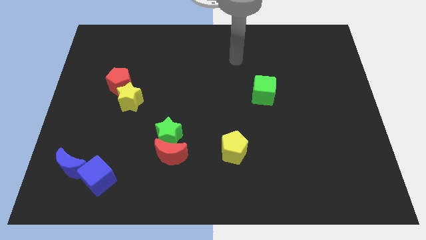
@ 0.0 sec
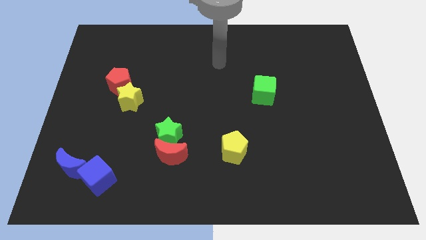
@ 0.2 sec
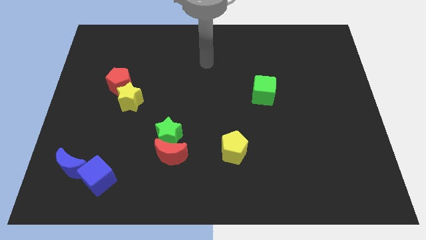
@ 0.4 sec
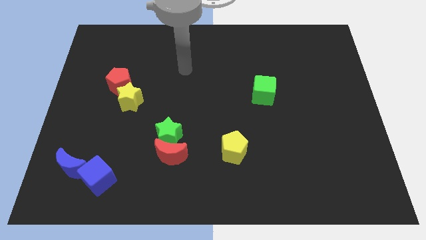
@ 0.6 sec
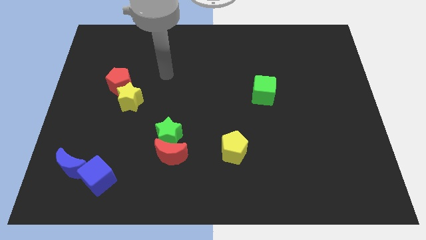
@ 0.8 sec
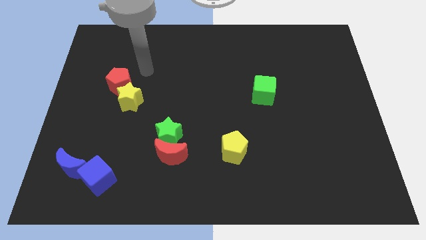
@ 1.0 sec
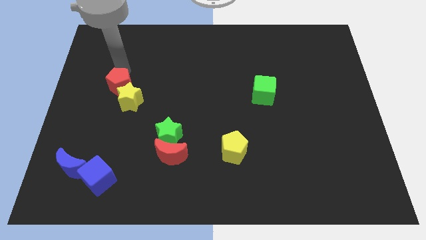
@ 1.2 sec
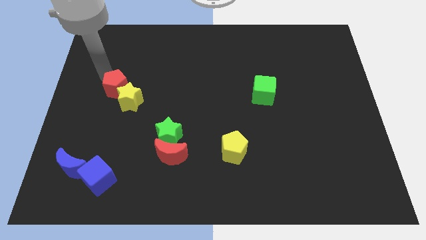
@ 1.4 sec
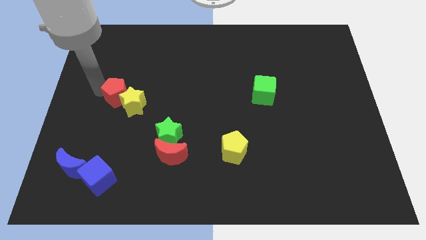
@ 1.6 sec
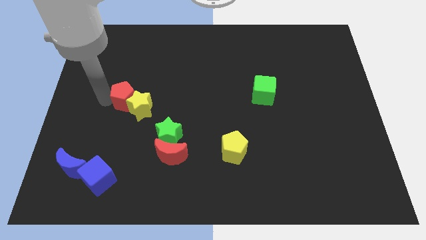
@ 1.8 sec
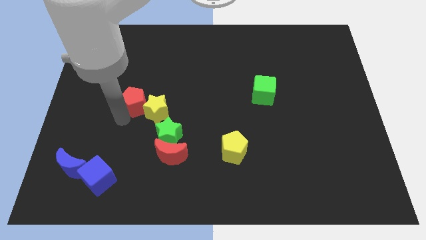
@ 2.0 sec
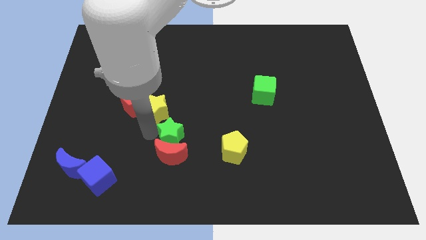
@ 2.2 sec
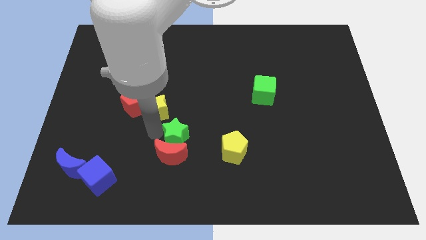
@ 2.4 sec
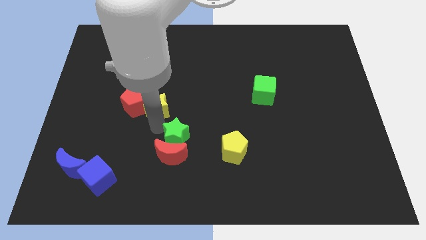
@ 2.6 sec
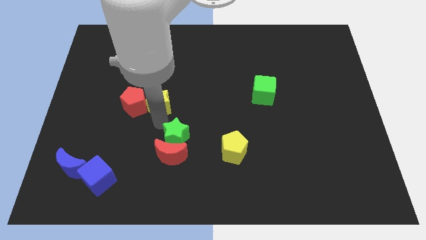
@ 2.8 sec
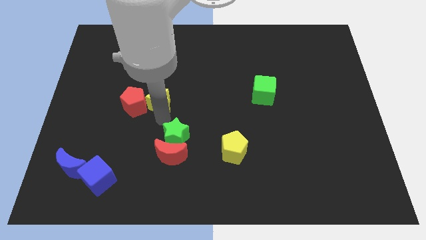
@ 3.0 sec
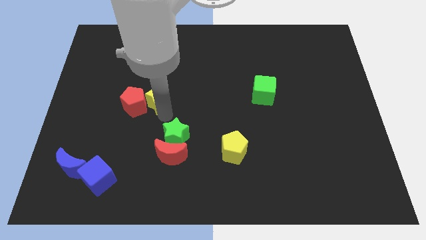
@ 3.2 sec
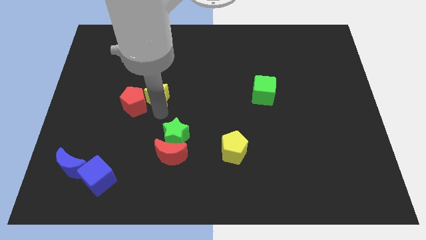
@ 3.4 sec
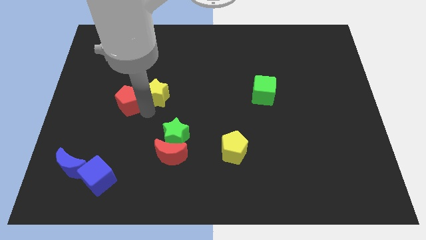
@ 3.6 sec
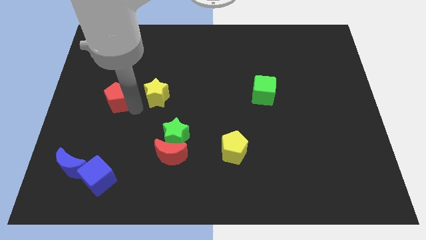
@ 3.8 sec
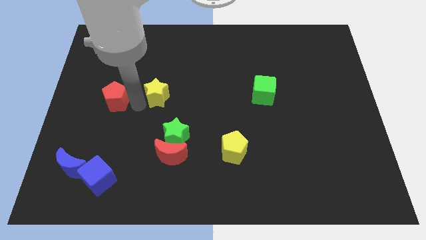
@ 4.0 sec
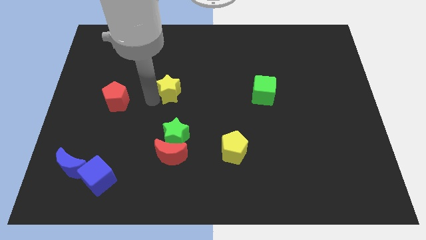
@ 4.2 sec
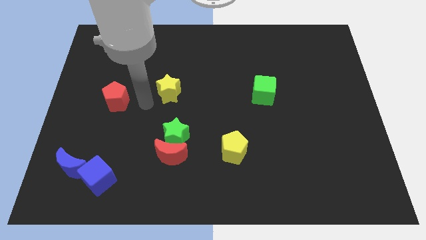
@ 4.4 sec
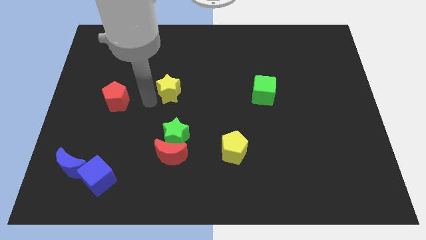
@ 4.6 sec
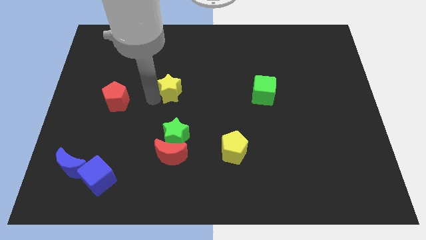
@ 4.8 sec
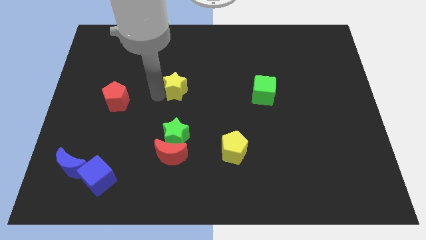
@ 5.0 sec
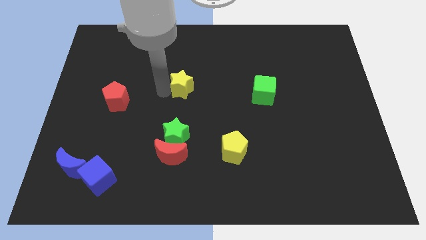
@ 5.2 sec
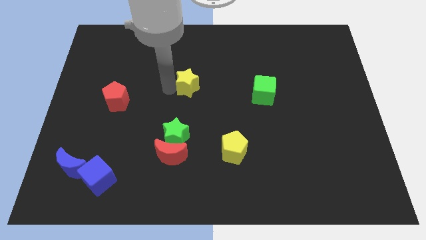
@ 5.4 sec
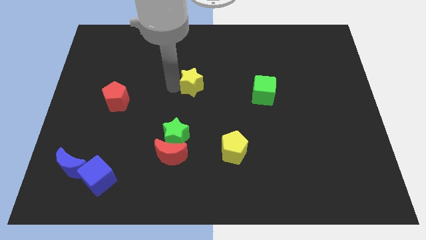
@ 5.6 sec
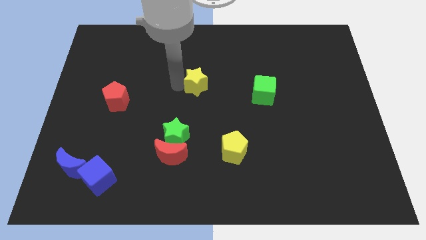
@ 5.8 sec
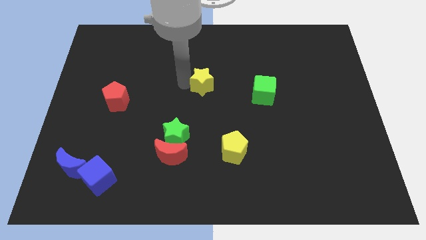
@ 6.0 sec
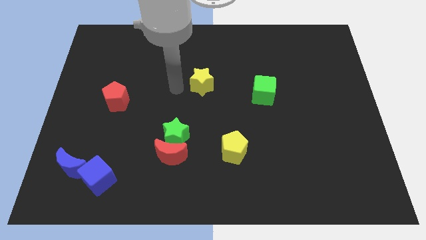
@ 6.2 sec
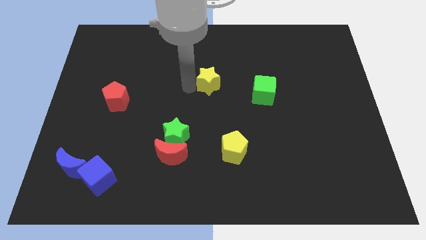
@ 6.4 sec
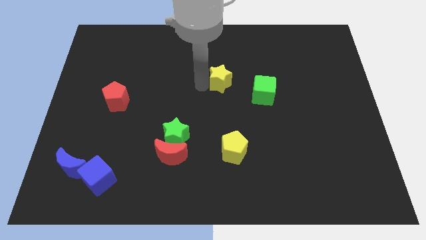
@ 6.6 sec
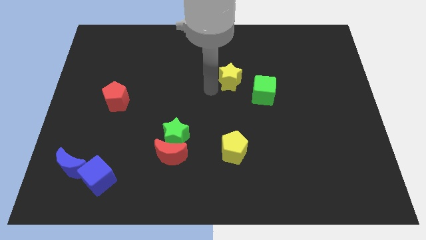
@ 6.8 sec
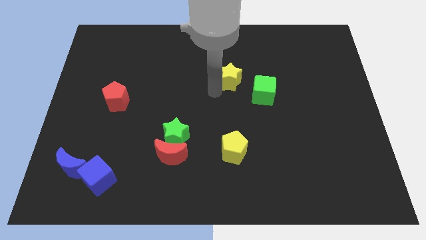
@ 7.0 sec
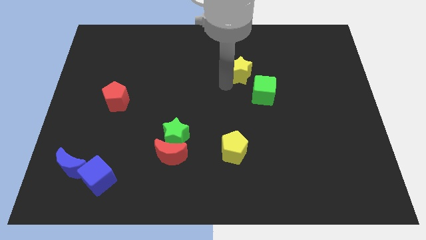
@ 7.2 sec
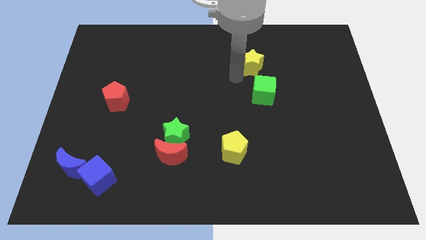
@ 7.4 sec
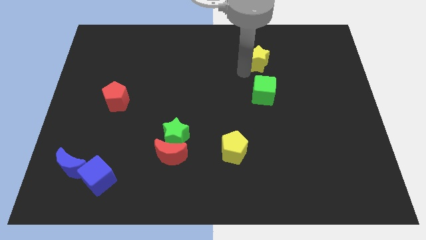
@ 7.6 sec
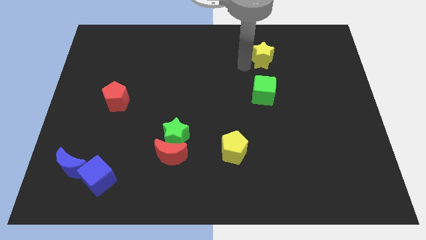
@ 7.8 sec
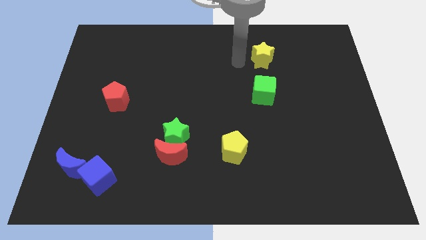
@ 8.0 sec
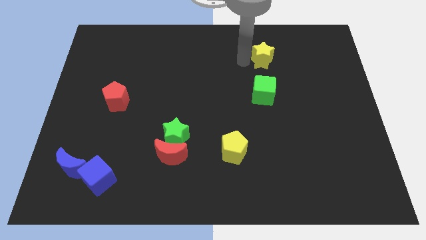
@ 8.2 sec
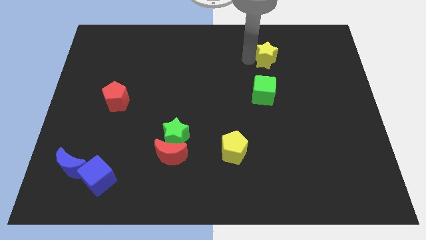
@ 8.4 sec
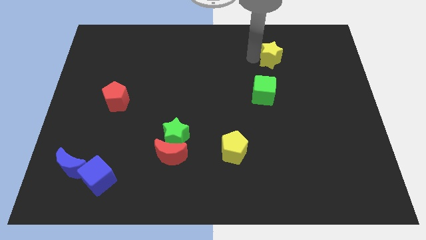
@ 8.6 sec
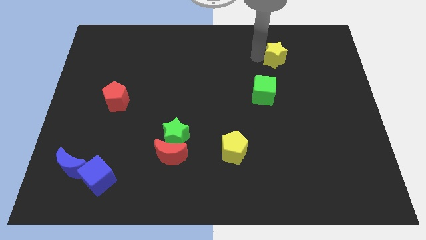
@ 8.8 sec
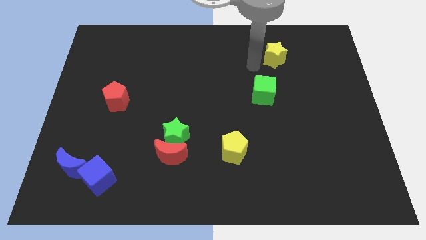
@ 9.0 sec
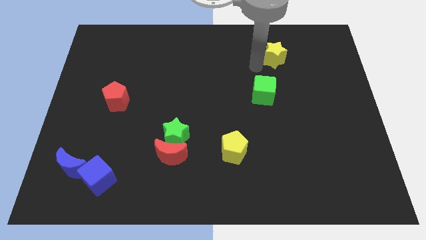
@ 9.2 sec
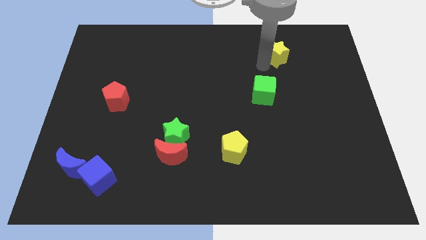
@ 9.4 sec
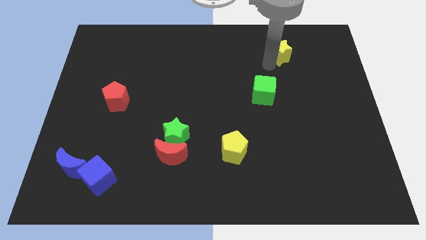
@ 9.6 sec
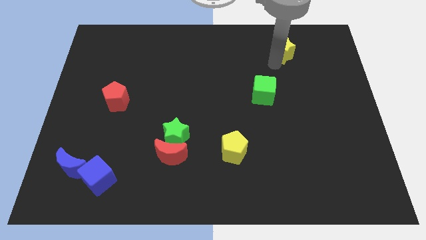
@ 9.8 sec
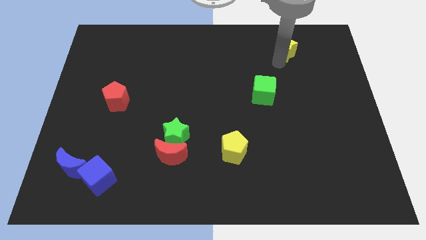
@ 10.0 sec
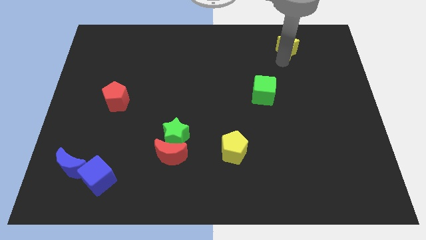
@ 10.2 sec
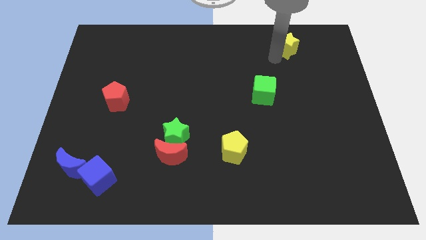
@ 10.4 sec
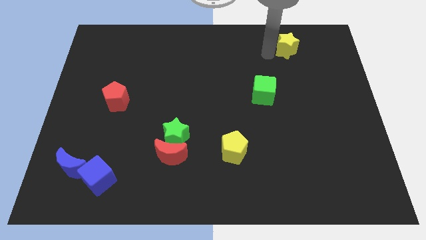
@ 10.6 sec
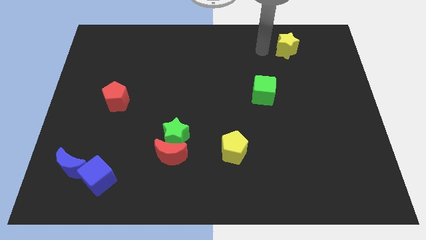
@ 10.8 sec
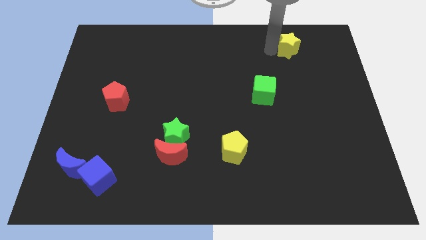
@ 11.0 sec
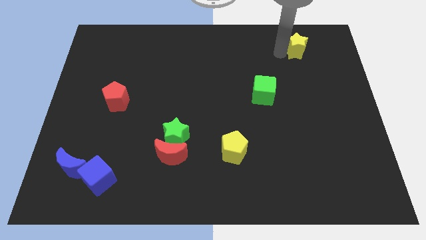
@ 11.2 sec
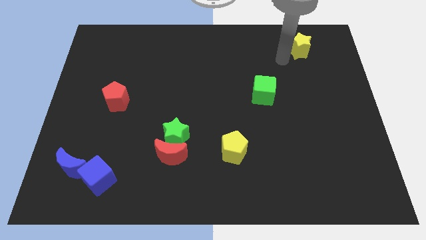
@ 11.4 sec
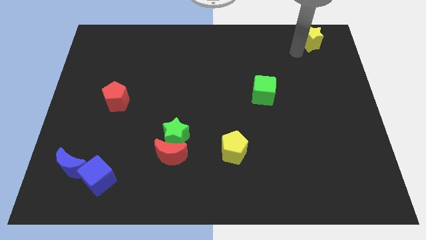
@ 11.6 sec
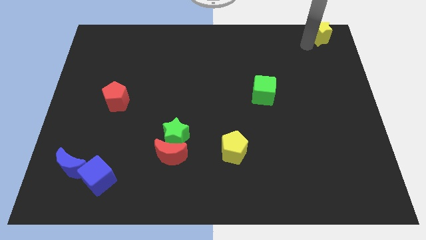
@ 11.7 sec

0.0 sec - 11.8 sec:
move the yellow star to the top right of the board
